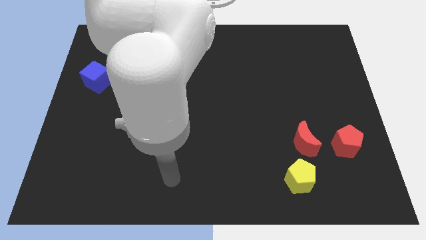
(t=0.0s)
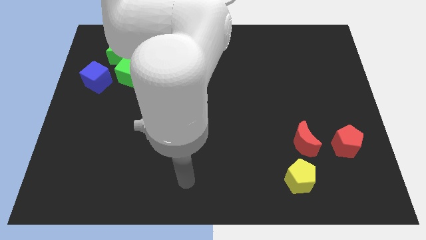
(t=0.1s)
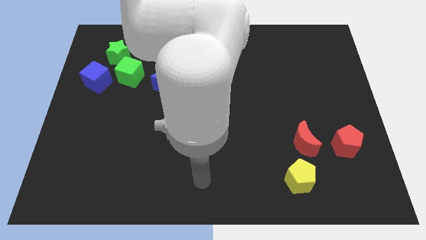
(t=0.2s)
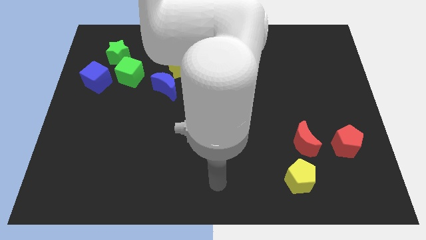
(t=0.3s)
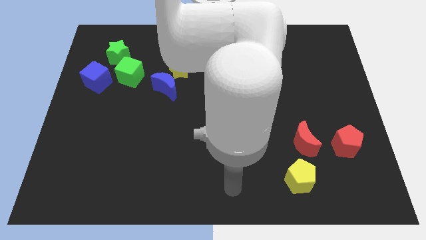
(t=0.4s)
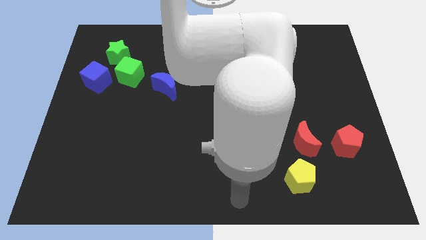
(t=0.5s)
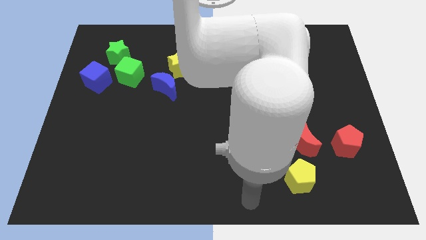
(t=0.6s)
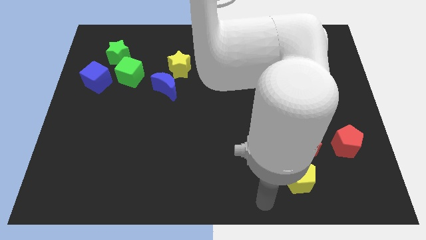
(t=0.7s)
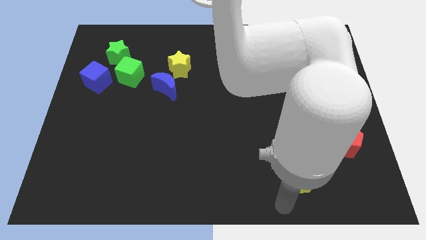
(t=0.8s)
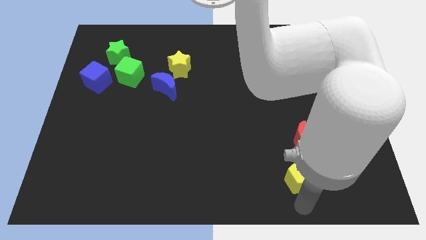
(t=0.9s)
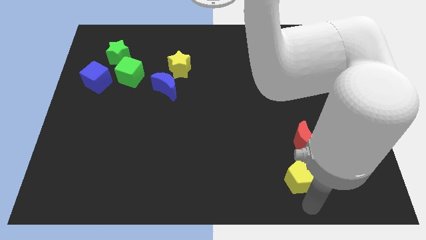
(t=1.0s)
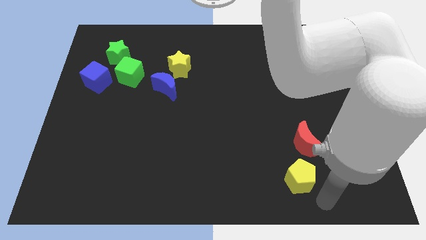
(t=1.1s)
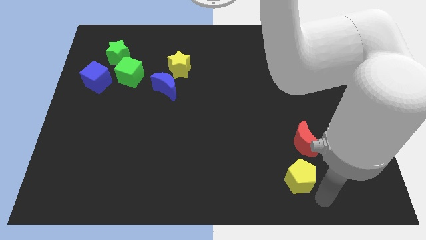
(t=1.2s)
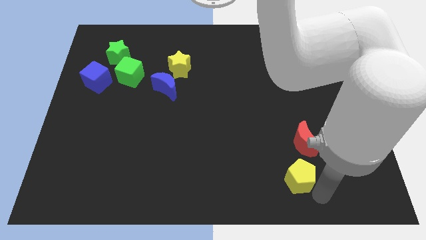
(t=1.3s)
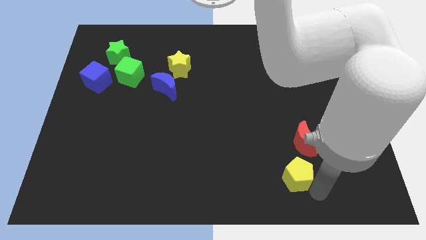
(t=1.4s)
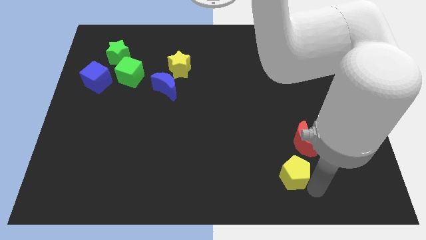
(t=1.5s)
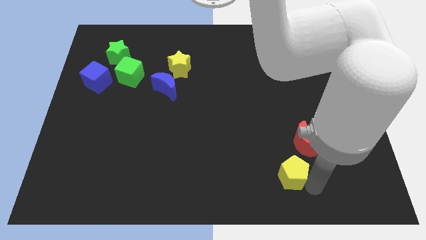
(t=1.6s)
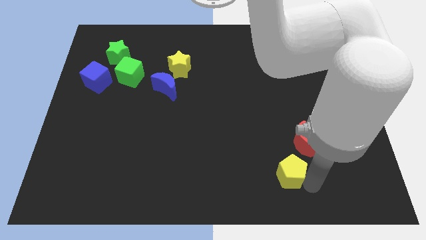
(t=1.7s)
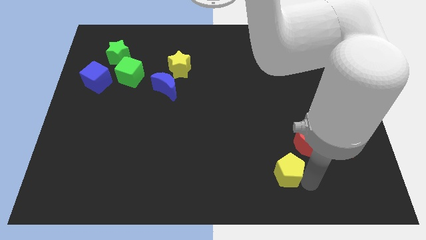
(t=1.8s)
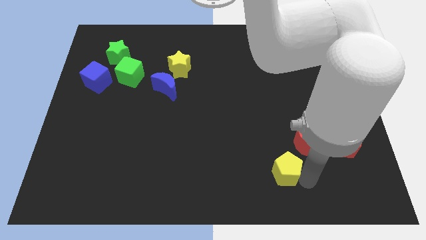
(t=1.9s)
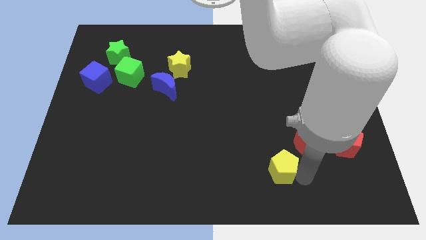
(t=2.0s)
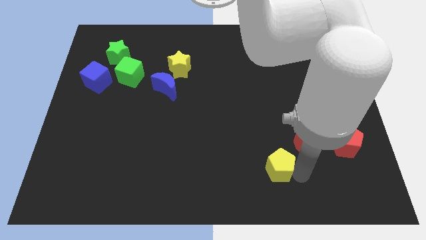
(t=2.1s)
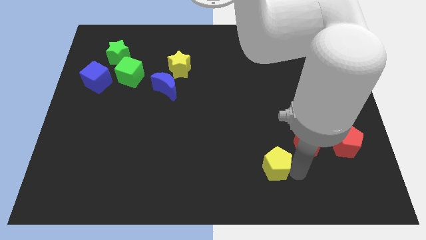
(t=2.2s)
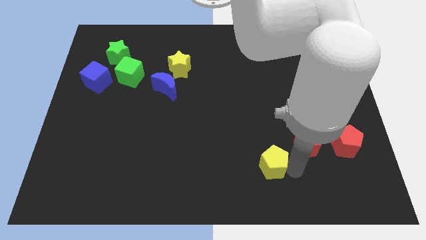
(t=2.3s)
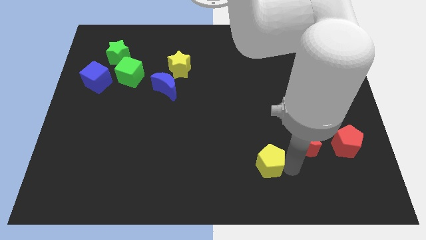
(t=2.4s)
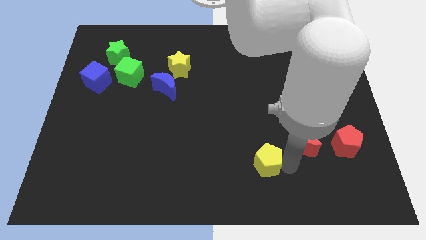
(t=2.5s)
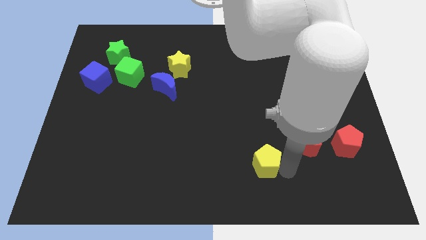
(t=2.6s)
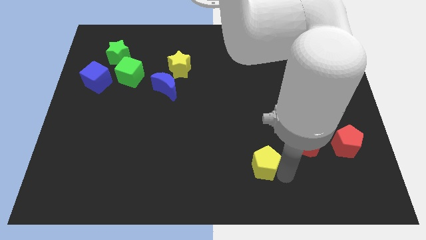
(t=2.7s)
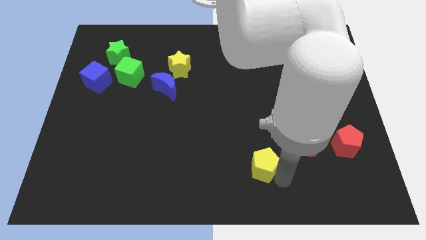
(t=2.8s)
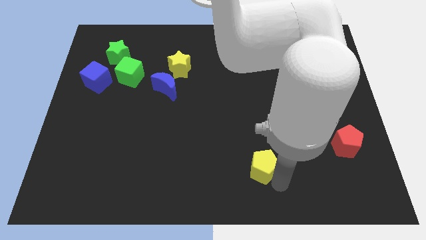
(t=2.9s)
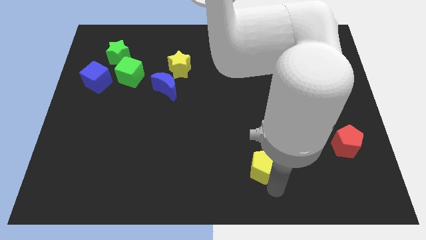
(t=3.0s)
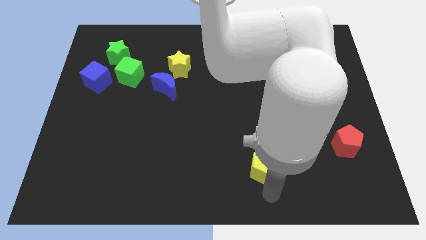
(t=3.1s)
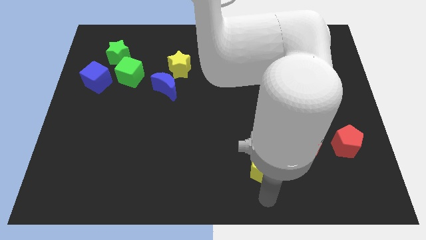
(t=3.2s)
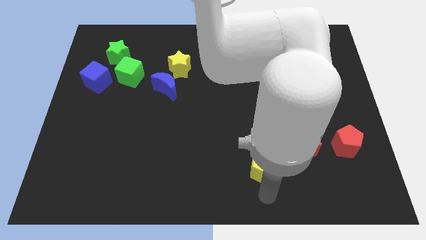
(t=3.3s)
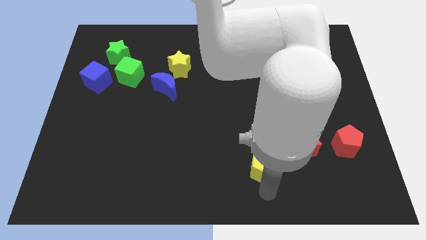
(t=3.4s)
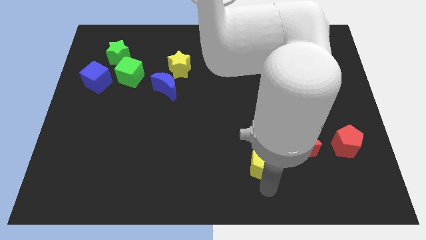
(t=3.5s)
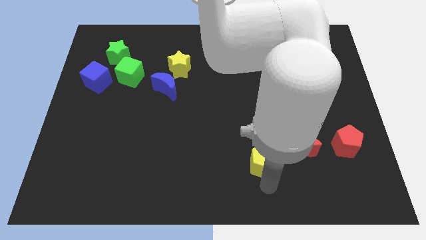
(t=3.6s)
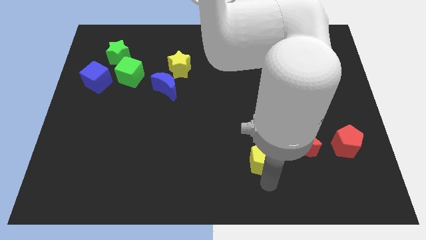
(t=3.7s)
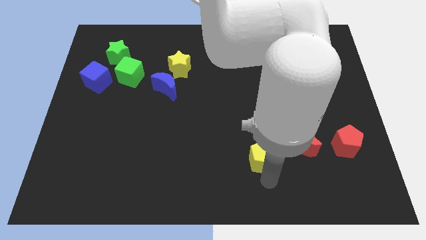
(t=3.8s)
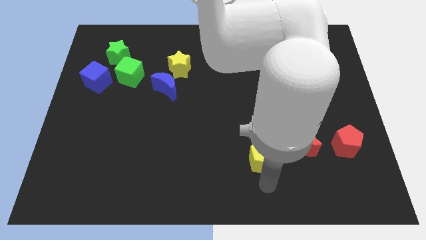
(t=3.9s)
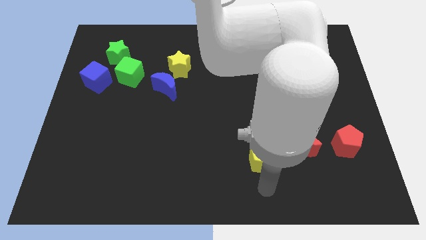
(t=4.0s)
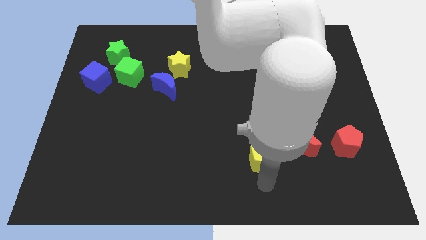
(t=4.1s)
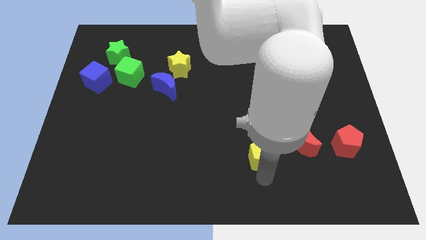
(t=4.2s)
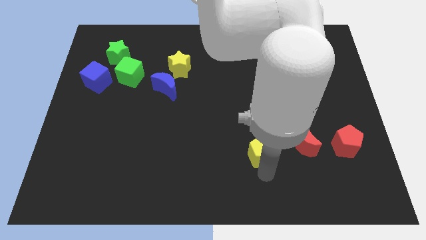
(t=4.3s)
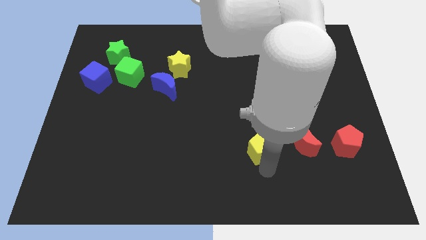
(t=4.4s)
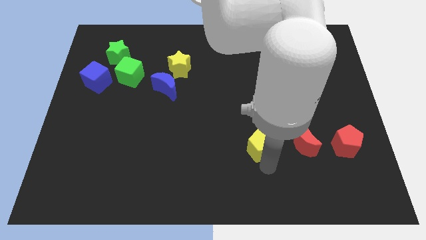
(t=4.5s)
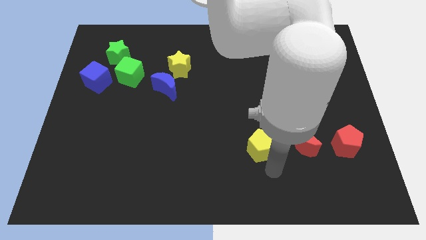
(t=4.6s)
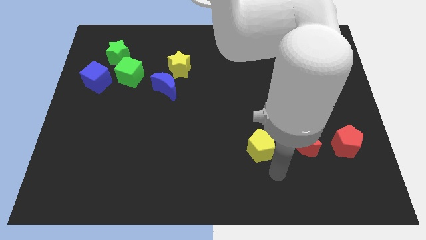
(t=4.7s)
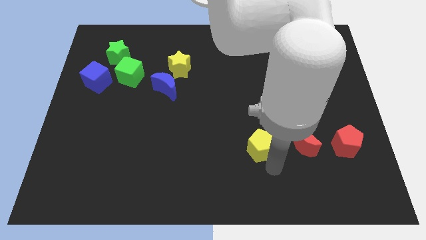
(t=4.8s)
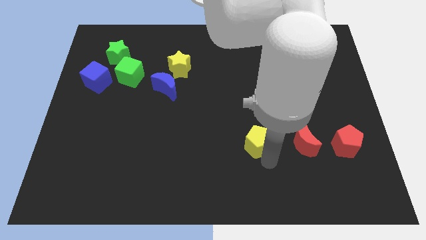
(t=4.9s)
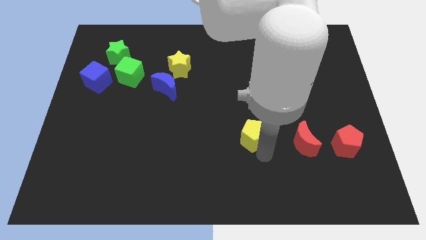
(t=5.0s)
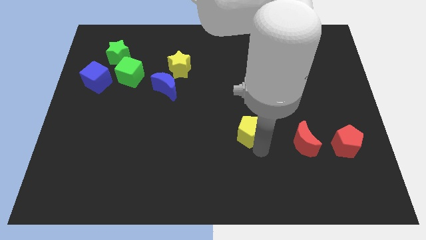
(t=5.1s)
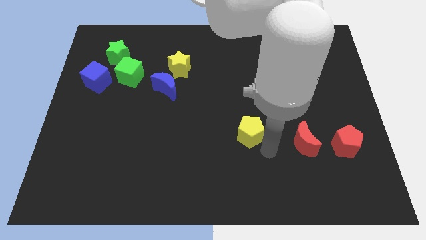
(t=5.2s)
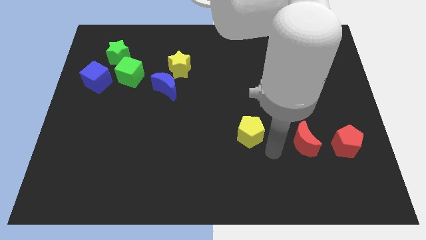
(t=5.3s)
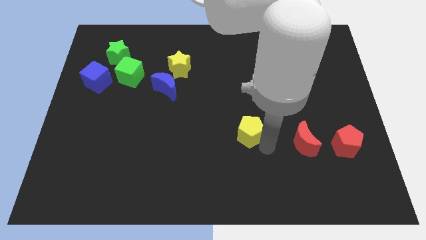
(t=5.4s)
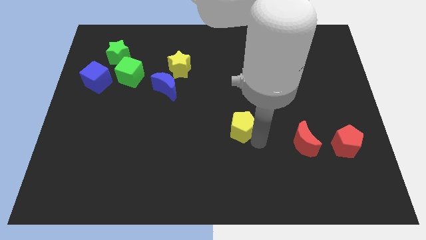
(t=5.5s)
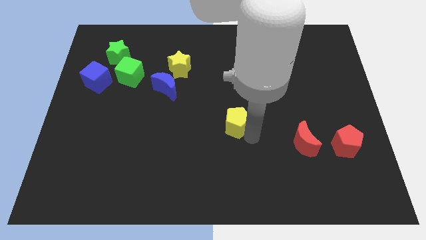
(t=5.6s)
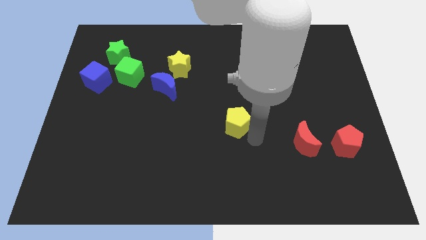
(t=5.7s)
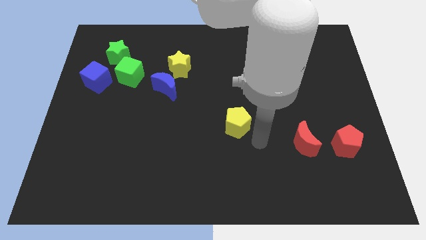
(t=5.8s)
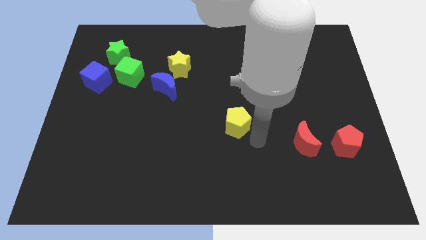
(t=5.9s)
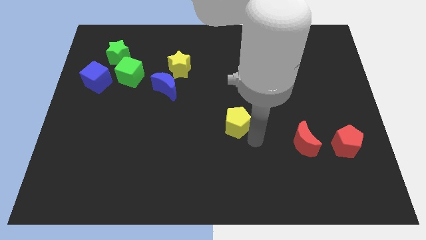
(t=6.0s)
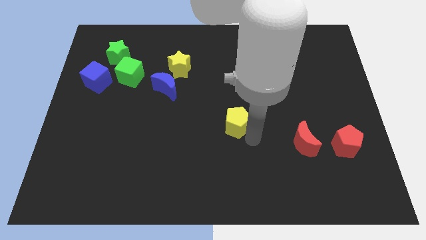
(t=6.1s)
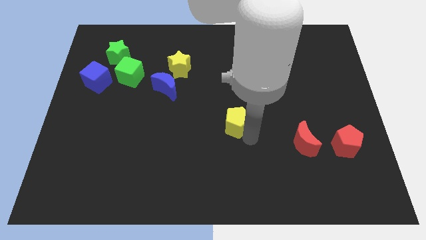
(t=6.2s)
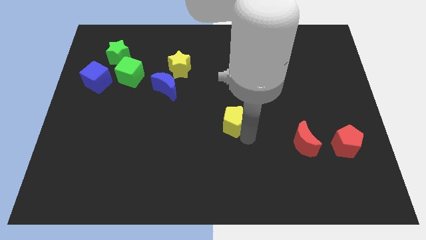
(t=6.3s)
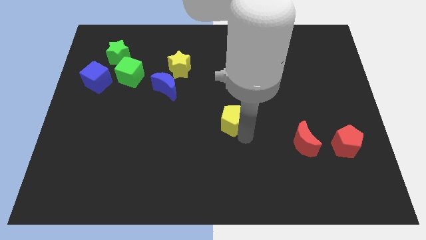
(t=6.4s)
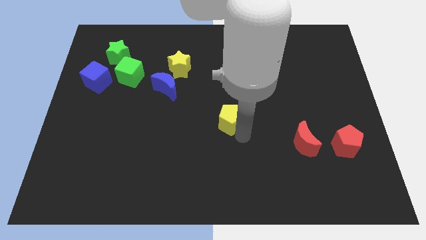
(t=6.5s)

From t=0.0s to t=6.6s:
slide the yellow pentagon upwards and left diagonally

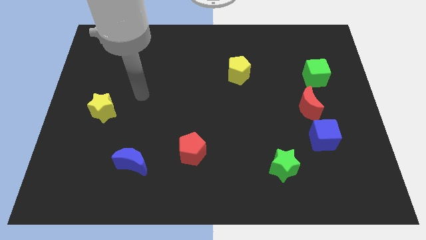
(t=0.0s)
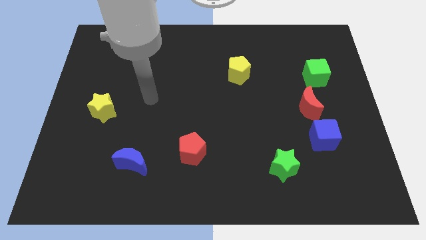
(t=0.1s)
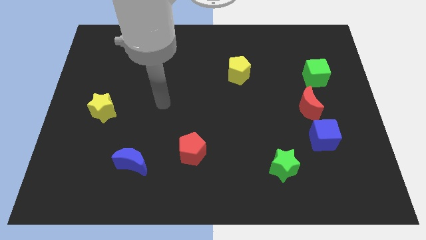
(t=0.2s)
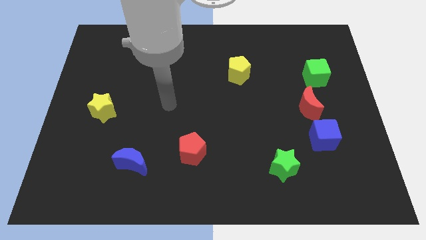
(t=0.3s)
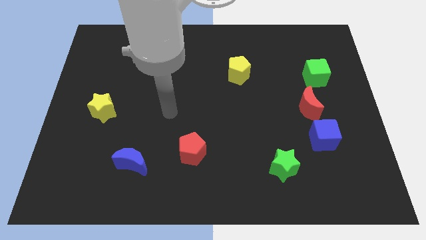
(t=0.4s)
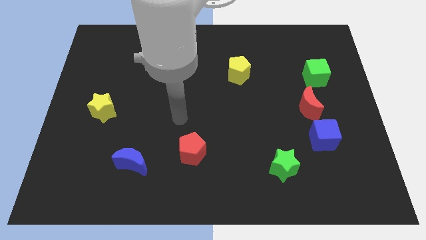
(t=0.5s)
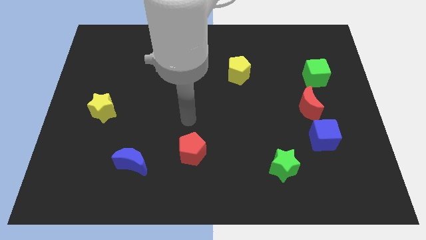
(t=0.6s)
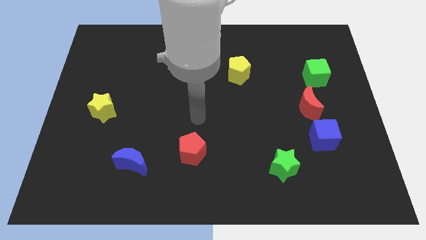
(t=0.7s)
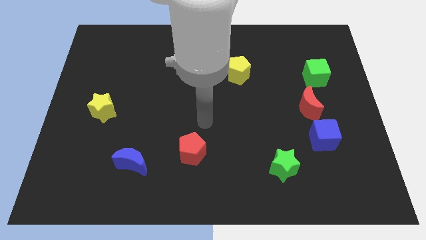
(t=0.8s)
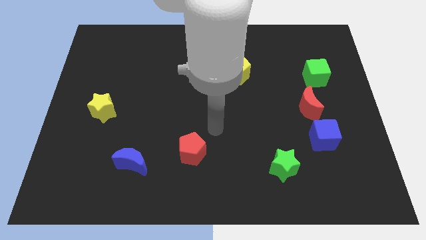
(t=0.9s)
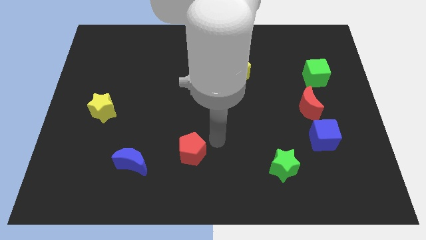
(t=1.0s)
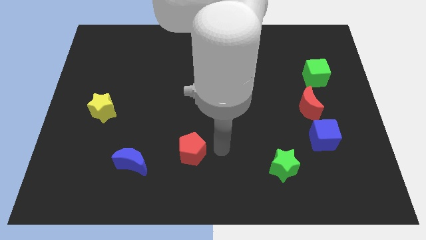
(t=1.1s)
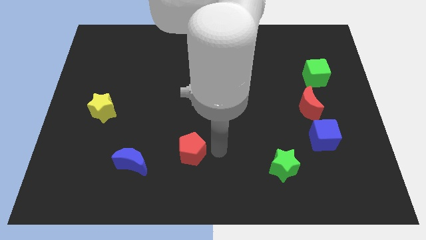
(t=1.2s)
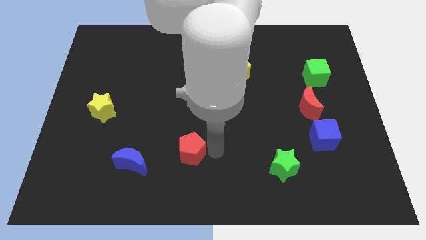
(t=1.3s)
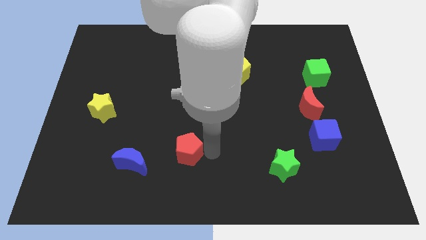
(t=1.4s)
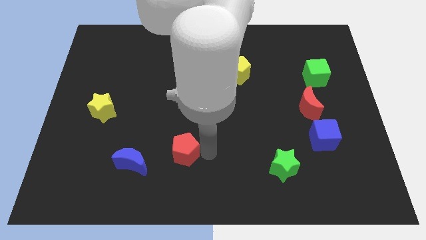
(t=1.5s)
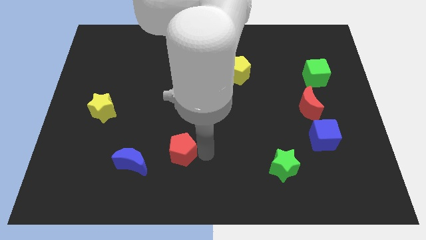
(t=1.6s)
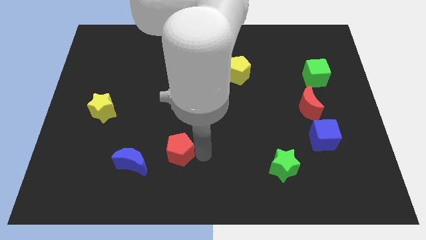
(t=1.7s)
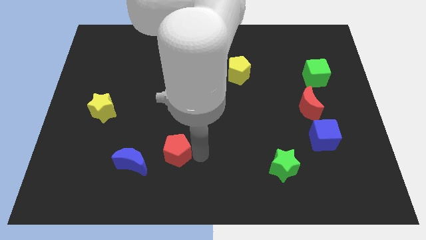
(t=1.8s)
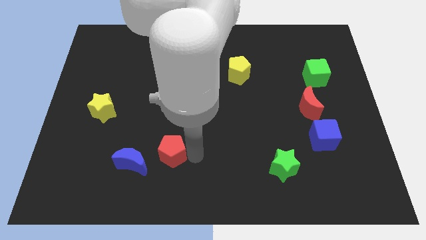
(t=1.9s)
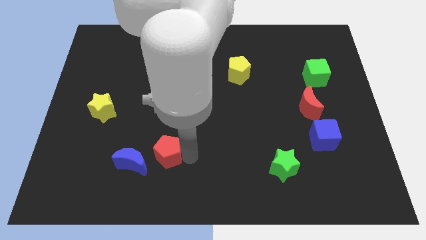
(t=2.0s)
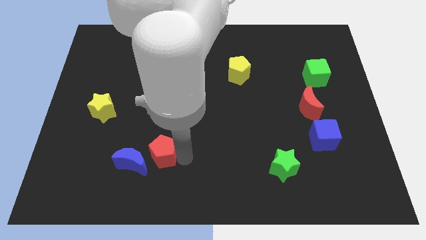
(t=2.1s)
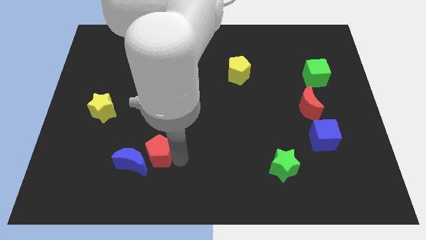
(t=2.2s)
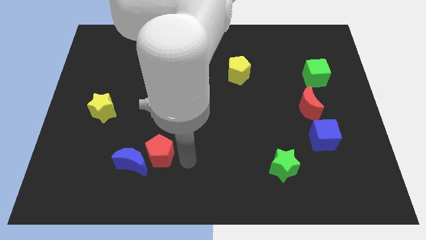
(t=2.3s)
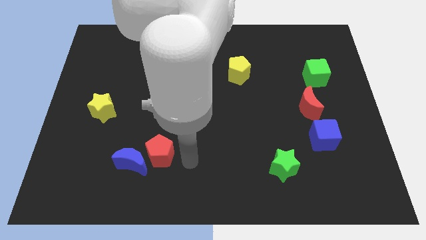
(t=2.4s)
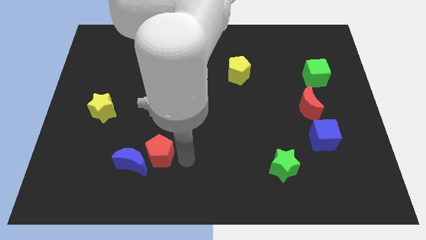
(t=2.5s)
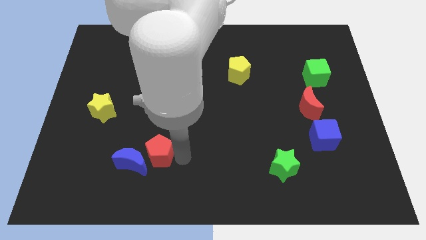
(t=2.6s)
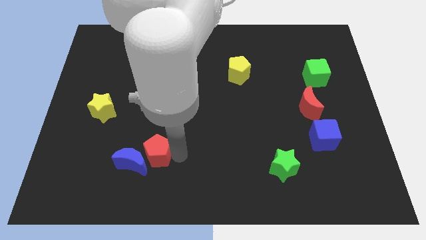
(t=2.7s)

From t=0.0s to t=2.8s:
move the red pentagon a little bit to the left
